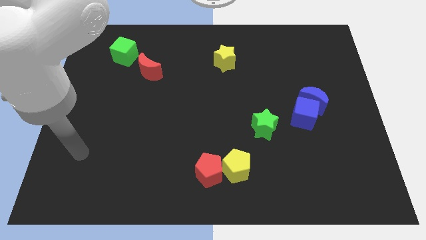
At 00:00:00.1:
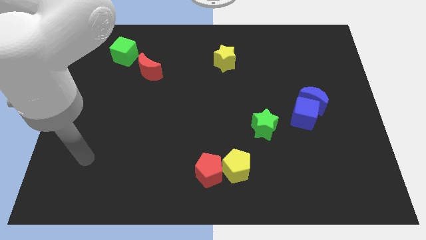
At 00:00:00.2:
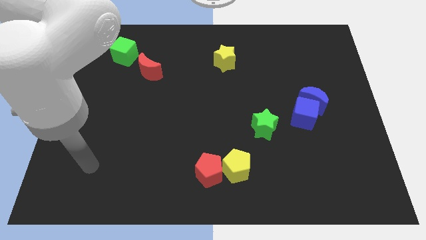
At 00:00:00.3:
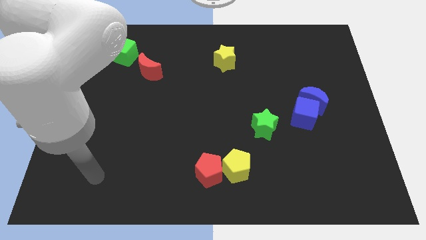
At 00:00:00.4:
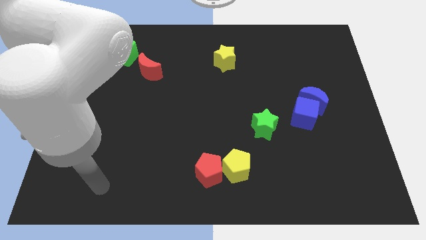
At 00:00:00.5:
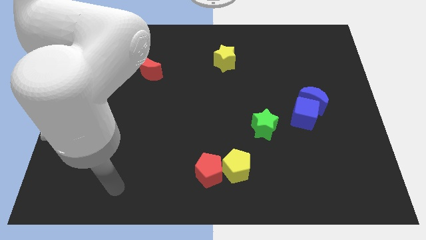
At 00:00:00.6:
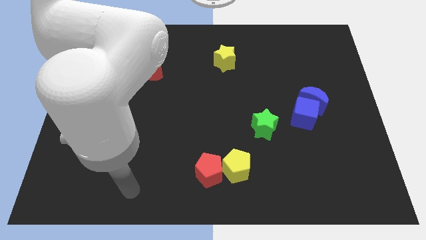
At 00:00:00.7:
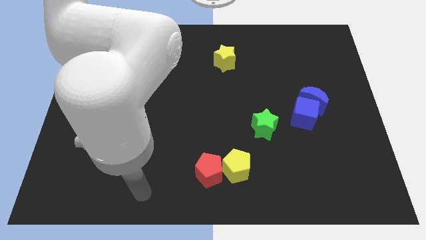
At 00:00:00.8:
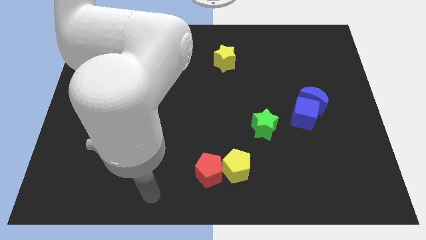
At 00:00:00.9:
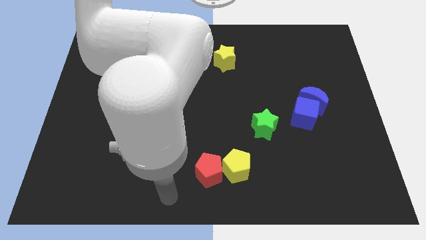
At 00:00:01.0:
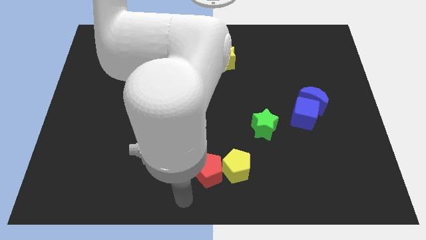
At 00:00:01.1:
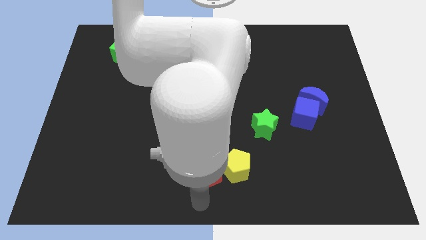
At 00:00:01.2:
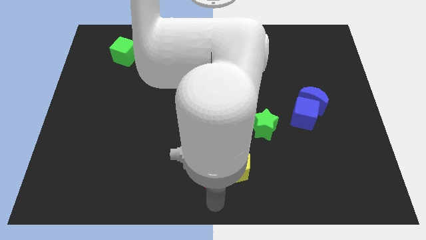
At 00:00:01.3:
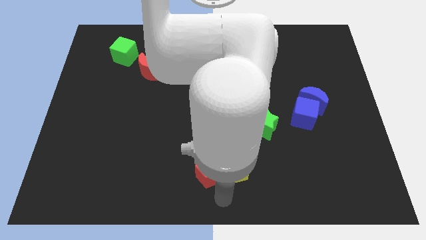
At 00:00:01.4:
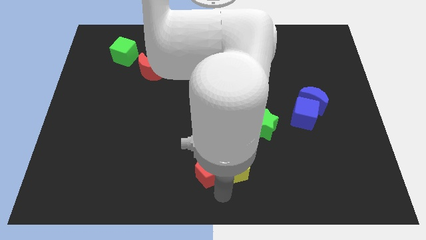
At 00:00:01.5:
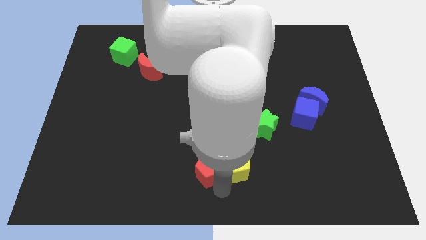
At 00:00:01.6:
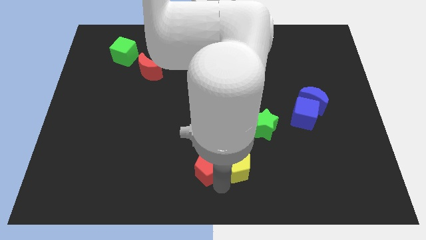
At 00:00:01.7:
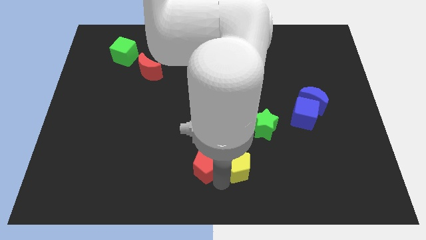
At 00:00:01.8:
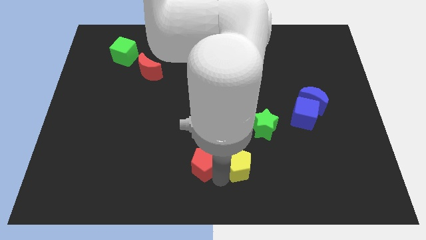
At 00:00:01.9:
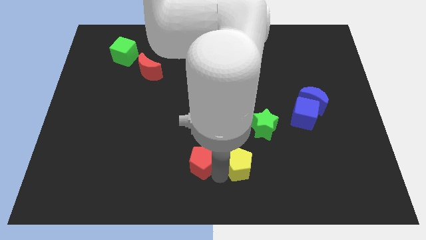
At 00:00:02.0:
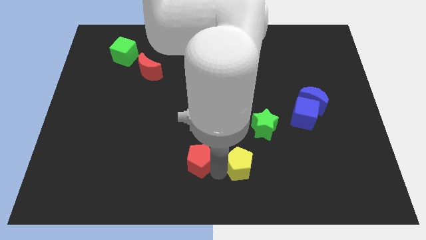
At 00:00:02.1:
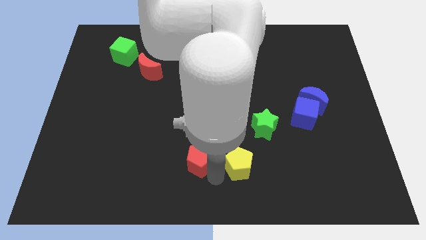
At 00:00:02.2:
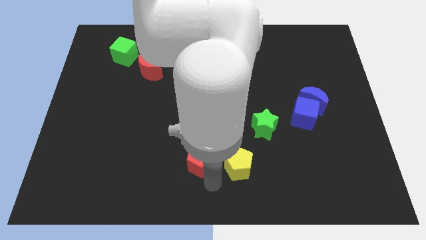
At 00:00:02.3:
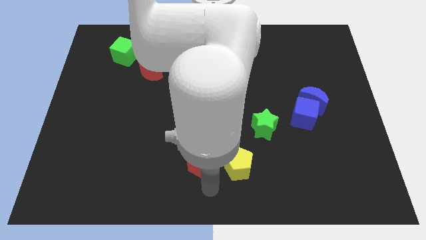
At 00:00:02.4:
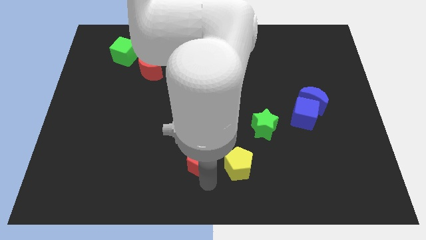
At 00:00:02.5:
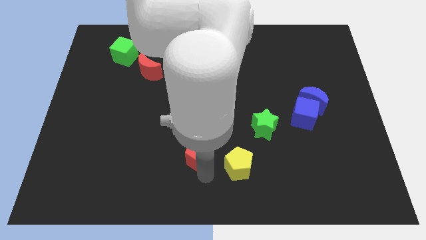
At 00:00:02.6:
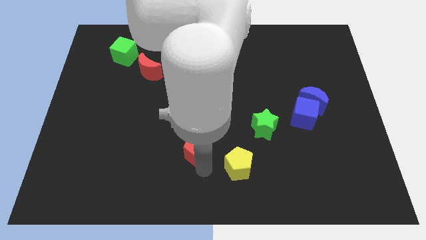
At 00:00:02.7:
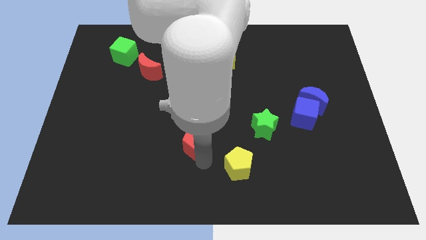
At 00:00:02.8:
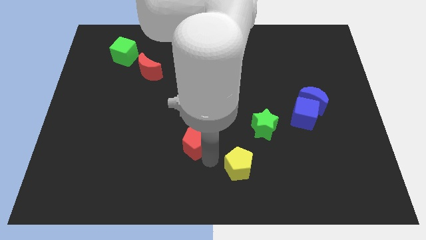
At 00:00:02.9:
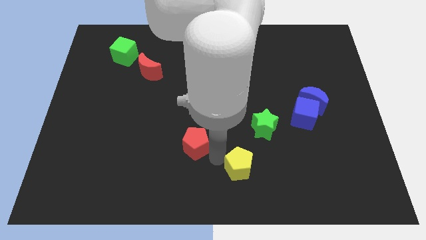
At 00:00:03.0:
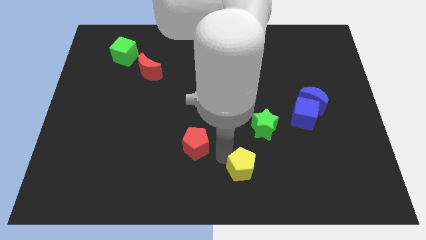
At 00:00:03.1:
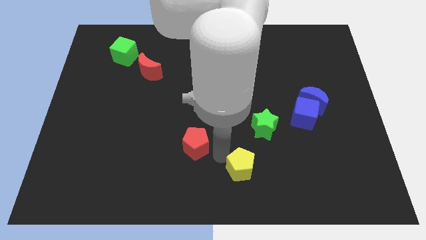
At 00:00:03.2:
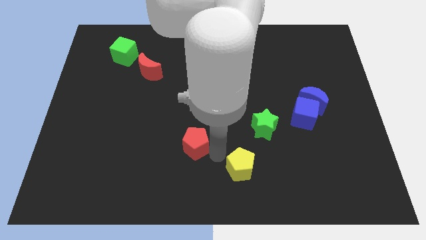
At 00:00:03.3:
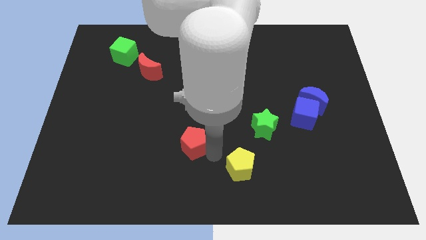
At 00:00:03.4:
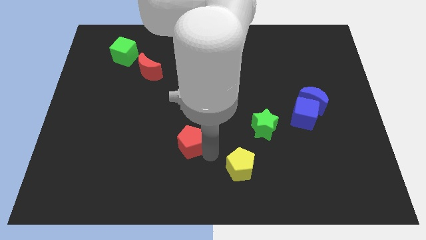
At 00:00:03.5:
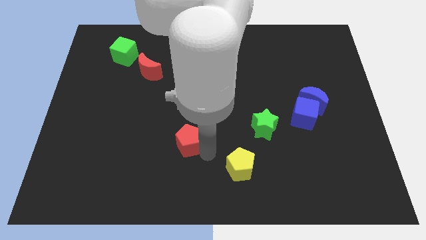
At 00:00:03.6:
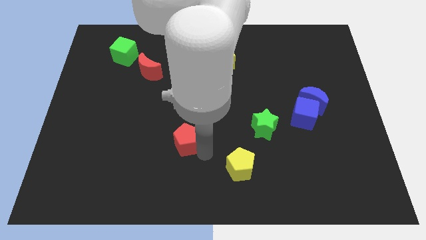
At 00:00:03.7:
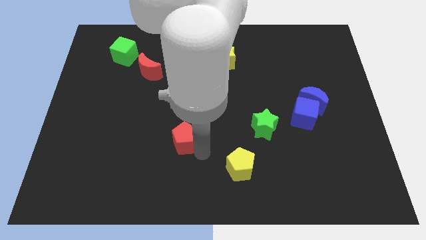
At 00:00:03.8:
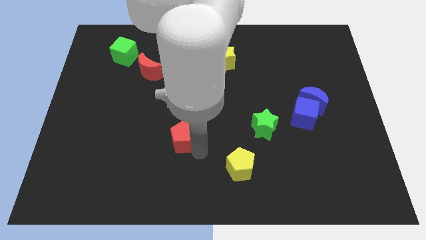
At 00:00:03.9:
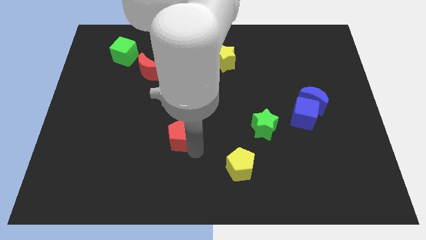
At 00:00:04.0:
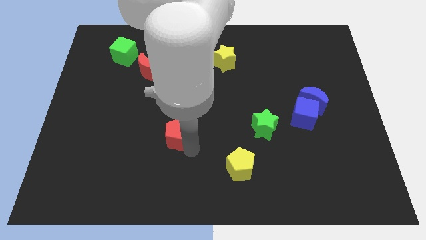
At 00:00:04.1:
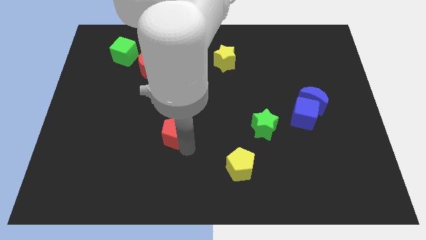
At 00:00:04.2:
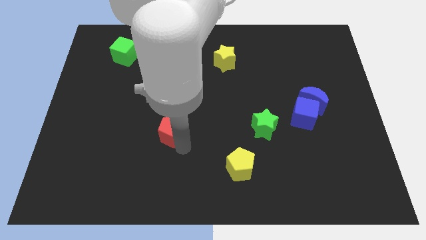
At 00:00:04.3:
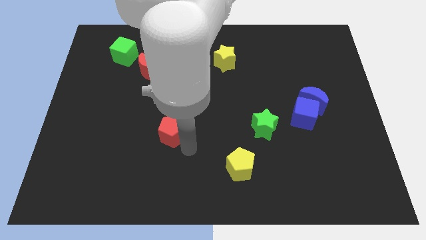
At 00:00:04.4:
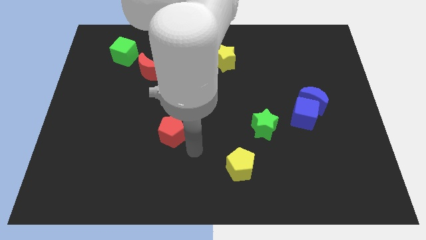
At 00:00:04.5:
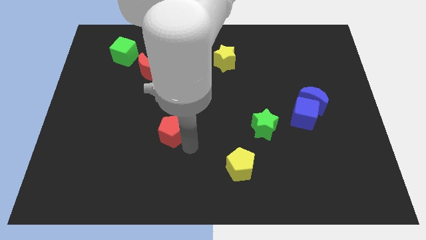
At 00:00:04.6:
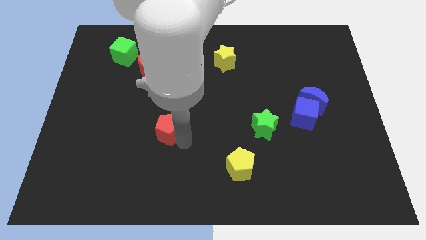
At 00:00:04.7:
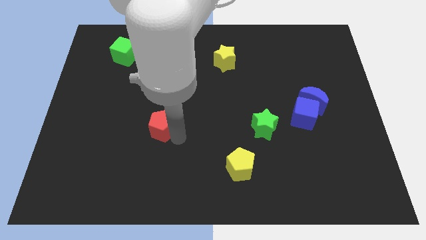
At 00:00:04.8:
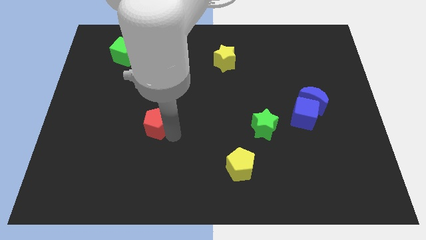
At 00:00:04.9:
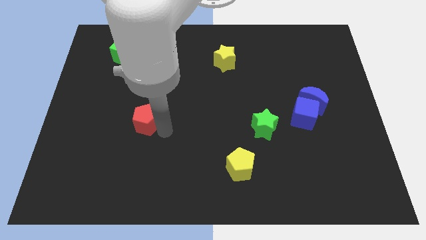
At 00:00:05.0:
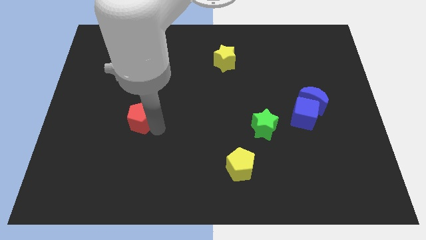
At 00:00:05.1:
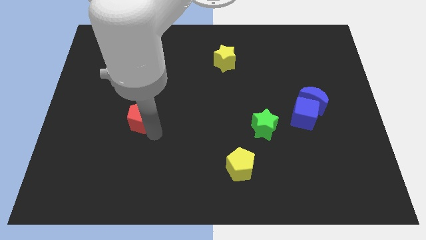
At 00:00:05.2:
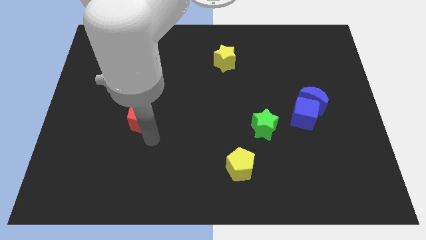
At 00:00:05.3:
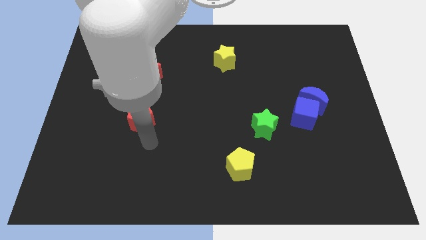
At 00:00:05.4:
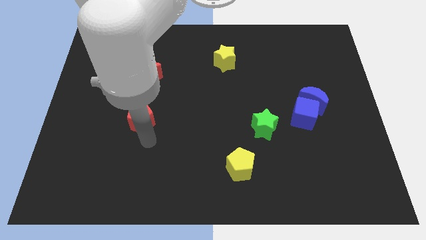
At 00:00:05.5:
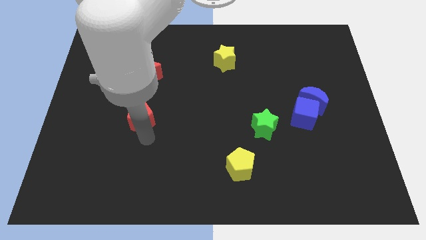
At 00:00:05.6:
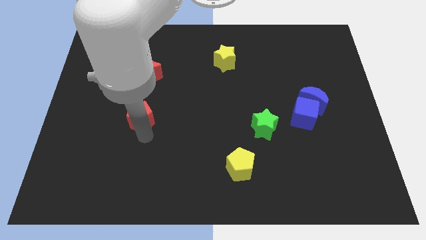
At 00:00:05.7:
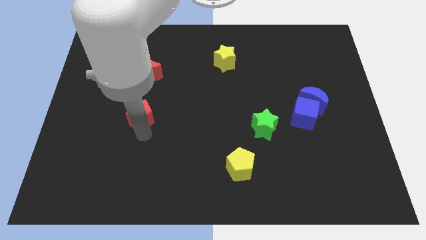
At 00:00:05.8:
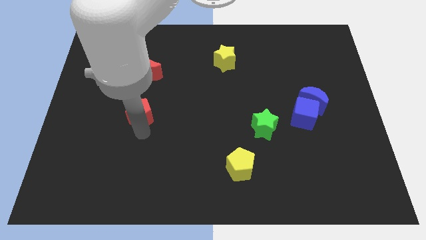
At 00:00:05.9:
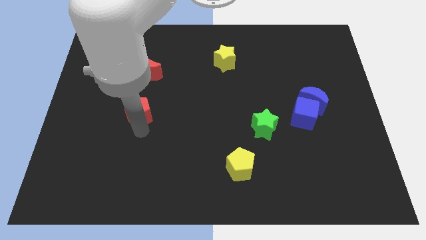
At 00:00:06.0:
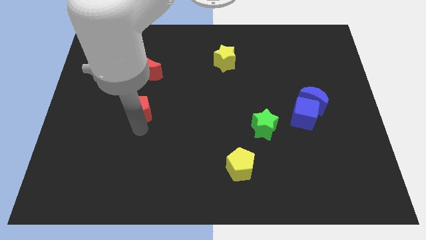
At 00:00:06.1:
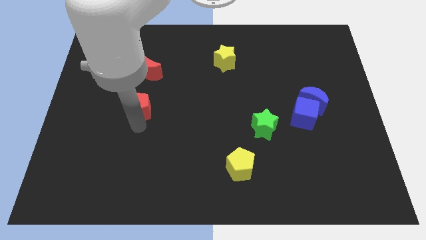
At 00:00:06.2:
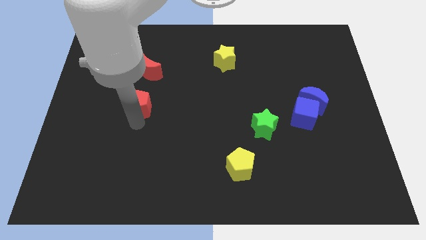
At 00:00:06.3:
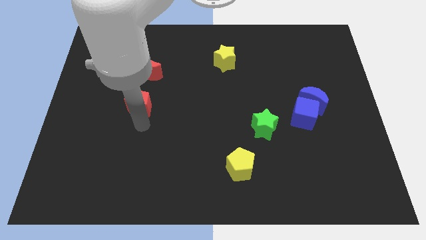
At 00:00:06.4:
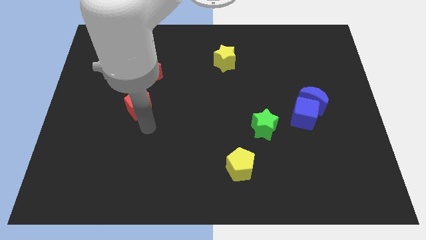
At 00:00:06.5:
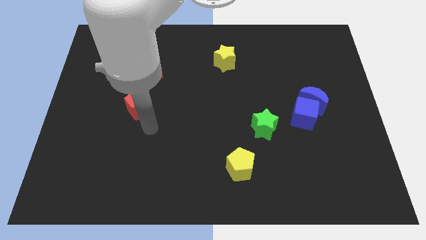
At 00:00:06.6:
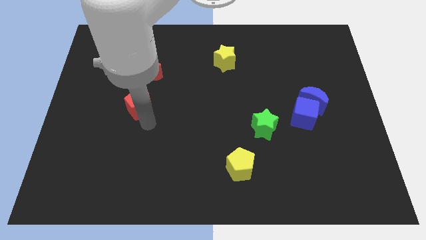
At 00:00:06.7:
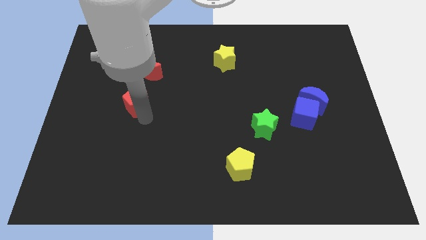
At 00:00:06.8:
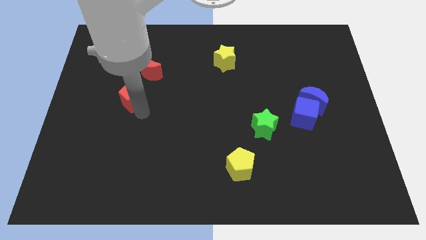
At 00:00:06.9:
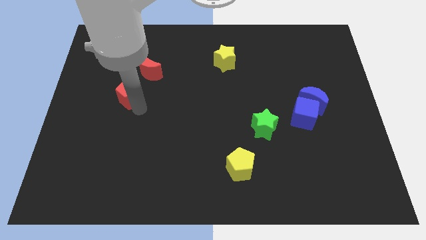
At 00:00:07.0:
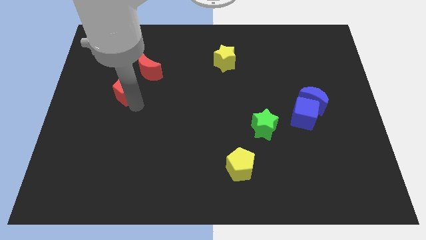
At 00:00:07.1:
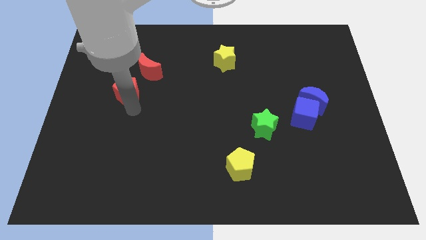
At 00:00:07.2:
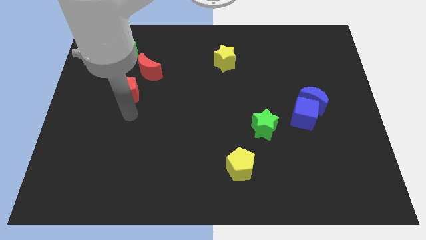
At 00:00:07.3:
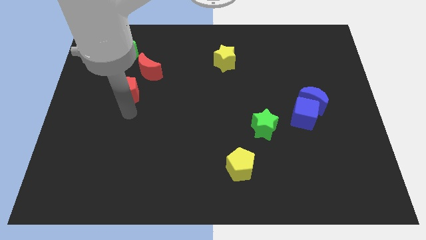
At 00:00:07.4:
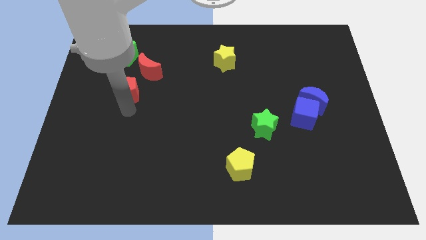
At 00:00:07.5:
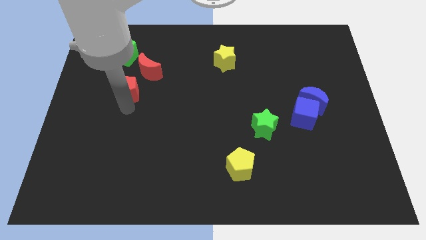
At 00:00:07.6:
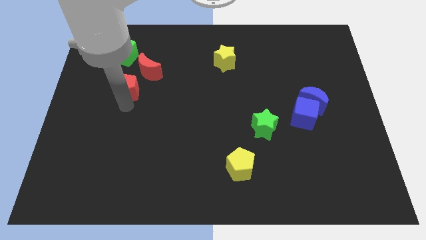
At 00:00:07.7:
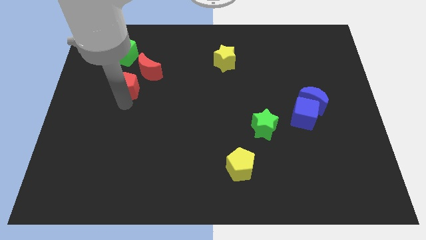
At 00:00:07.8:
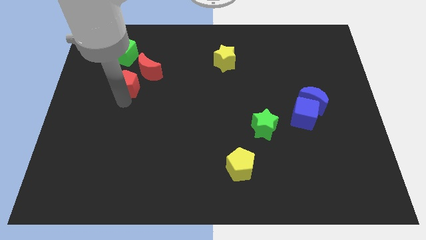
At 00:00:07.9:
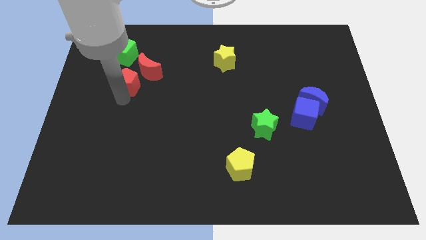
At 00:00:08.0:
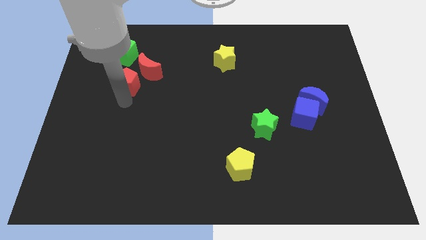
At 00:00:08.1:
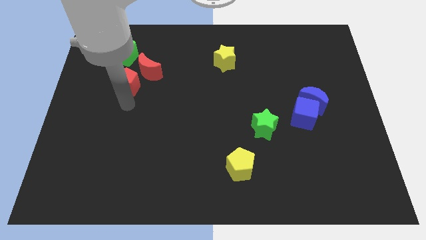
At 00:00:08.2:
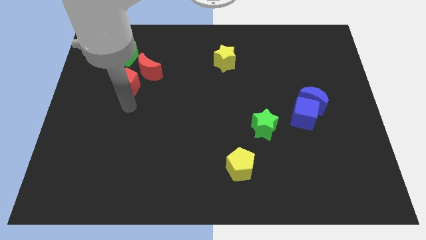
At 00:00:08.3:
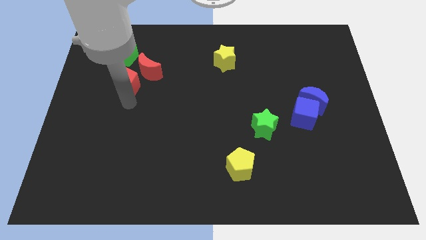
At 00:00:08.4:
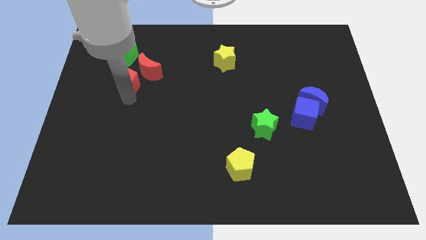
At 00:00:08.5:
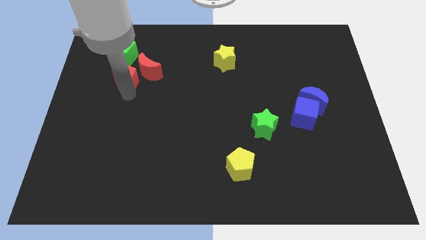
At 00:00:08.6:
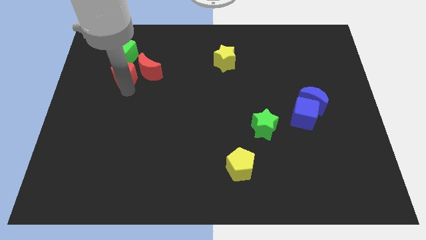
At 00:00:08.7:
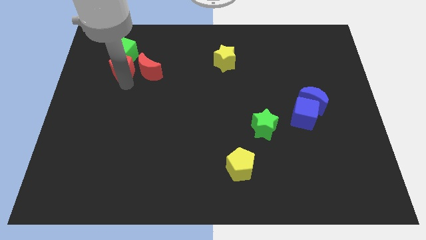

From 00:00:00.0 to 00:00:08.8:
slide the red pentagon close to the green cube
